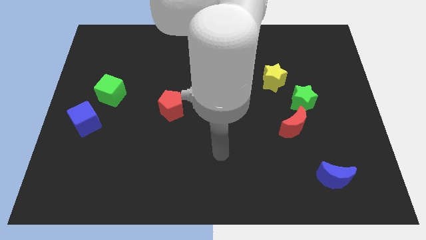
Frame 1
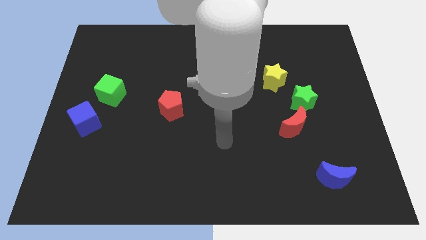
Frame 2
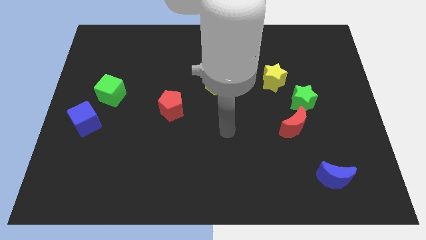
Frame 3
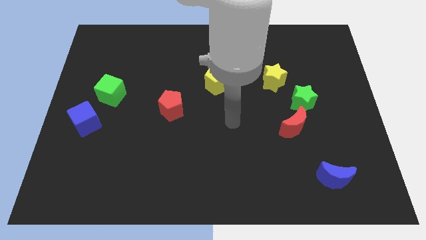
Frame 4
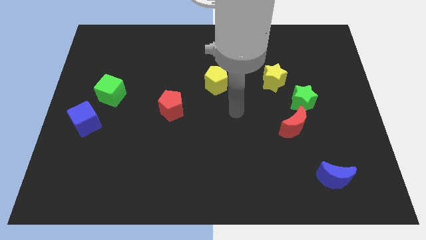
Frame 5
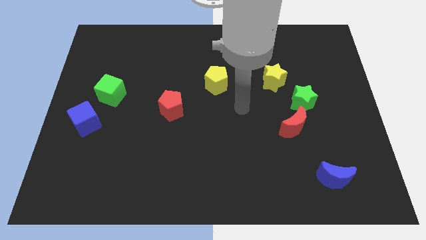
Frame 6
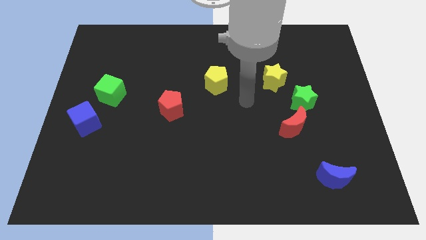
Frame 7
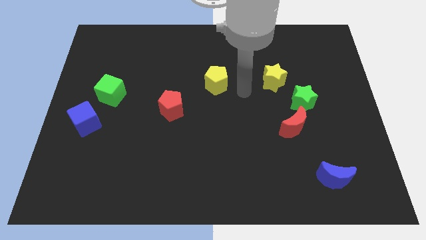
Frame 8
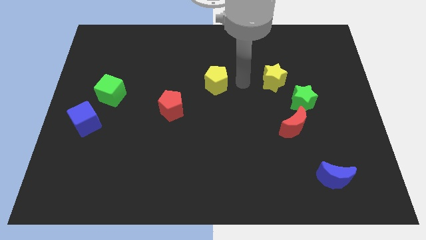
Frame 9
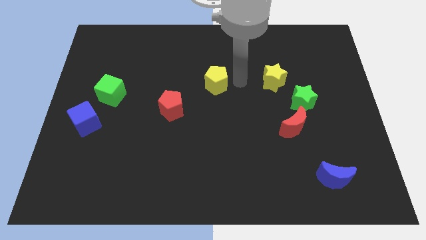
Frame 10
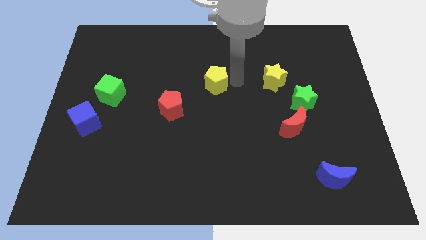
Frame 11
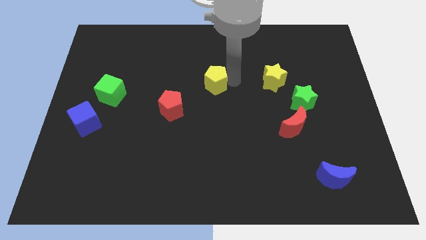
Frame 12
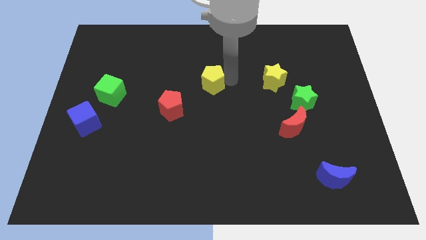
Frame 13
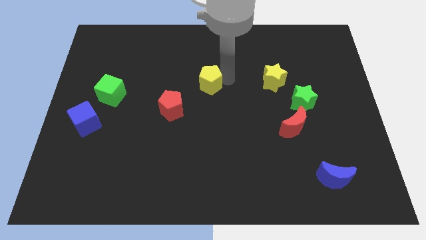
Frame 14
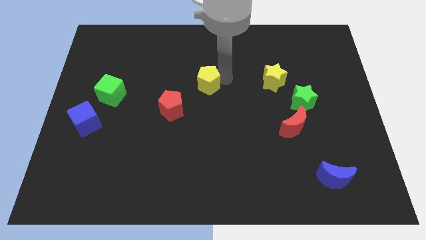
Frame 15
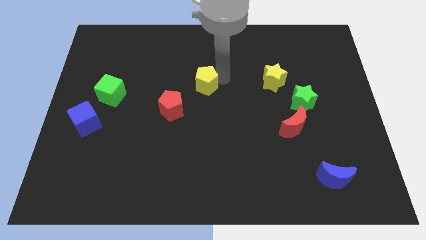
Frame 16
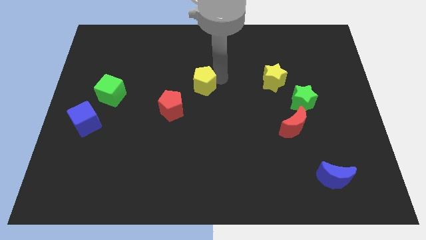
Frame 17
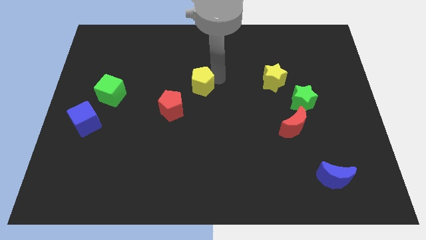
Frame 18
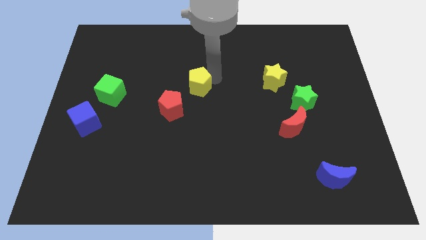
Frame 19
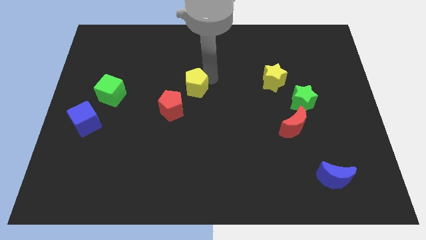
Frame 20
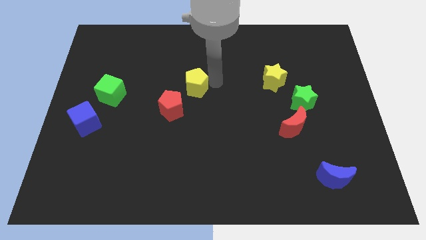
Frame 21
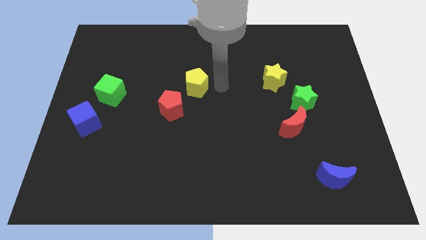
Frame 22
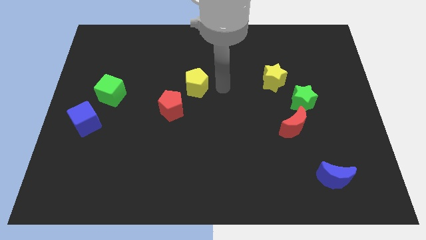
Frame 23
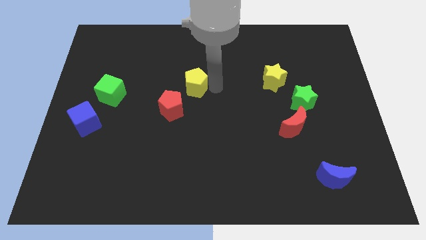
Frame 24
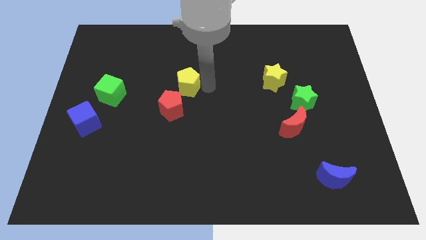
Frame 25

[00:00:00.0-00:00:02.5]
slide the yellow pentagon left a little bit

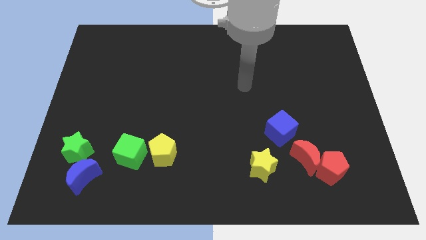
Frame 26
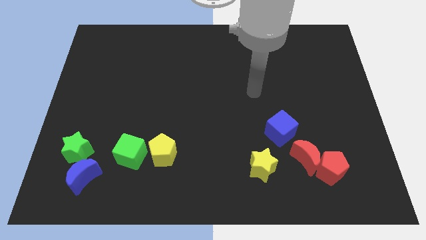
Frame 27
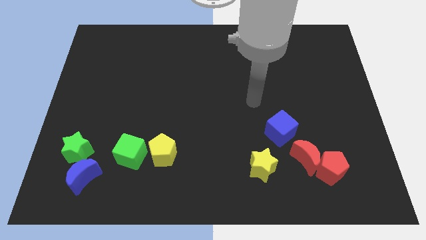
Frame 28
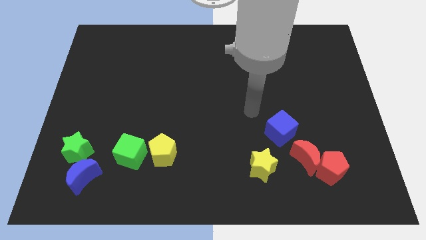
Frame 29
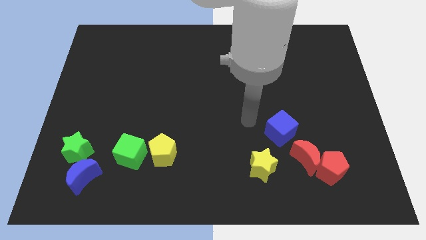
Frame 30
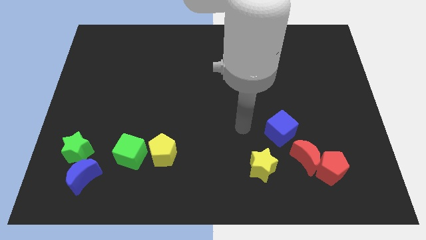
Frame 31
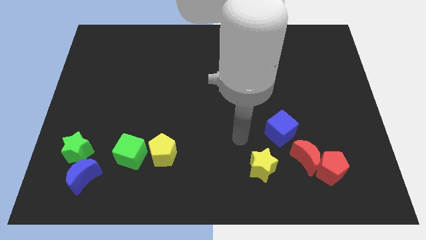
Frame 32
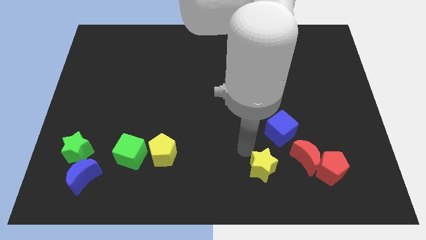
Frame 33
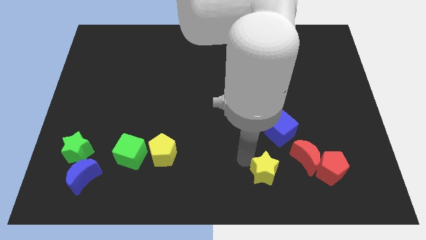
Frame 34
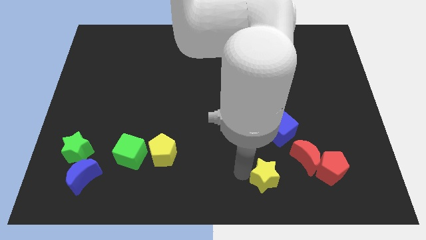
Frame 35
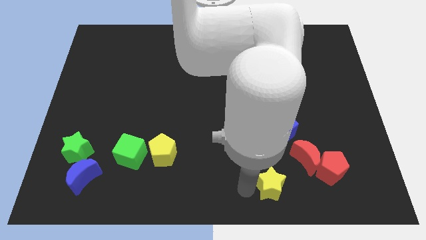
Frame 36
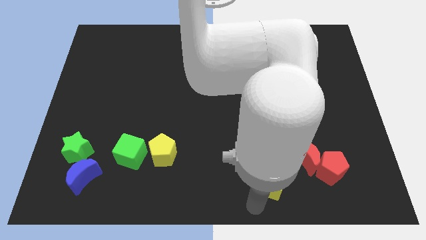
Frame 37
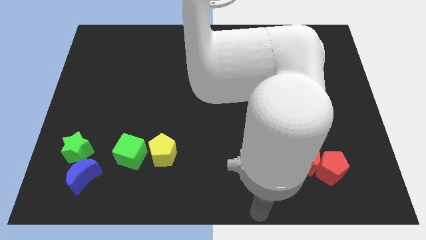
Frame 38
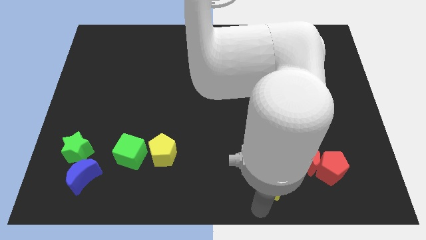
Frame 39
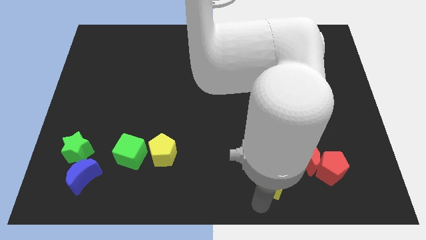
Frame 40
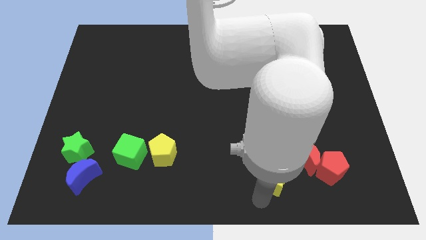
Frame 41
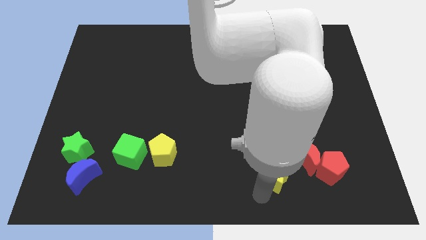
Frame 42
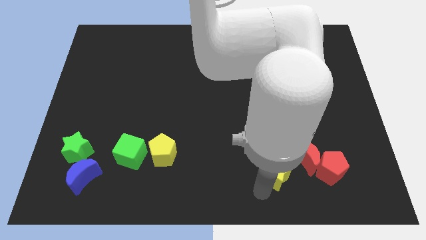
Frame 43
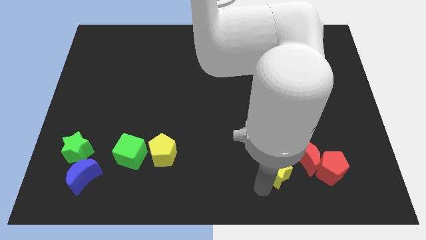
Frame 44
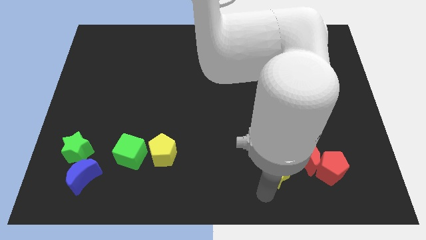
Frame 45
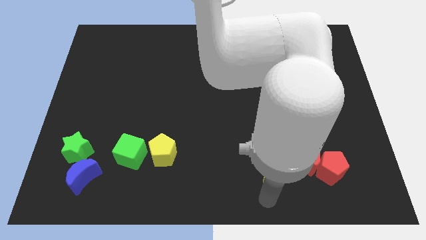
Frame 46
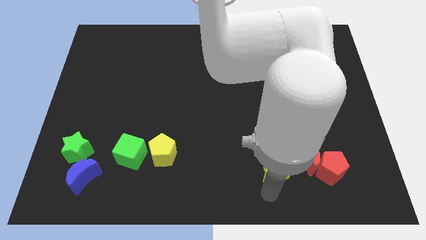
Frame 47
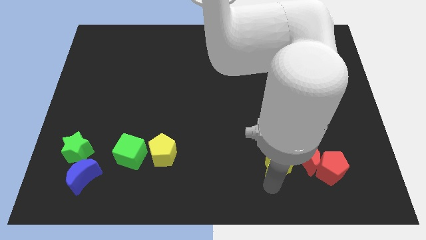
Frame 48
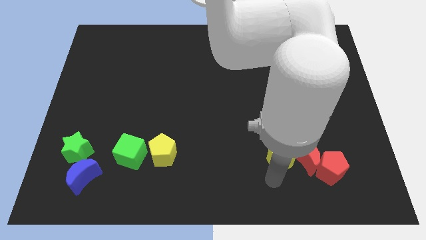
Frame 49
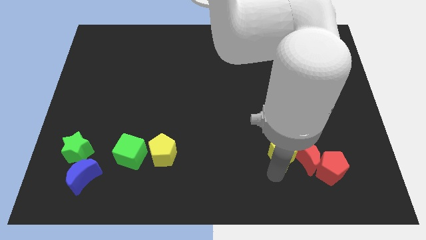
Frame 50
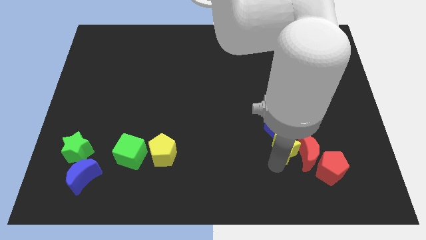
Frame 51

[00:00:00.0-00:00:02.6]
slide the yellow star up and right diagonally a little

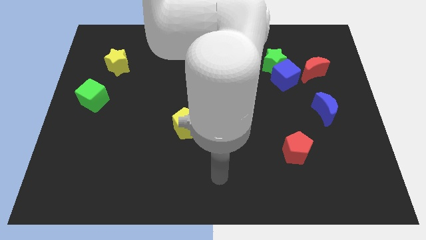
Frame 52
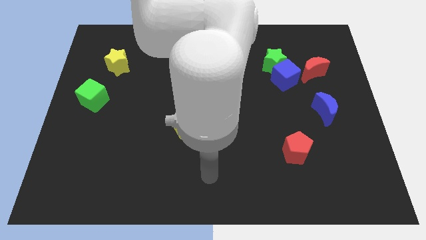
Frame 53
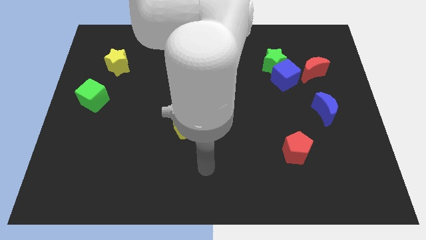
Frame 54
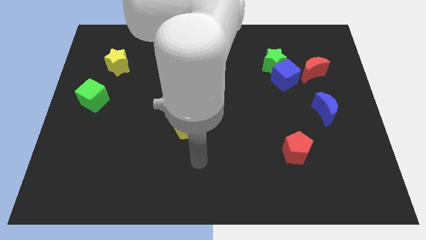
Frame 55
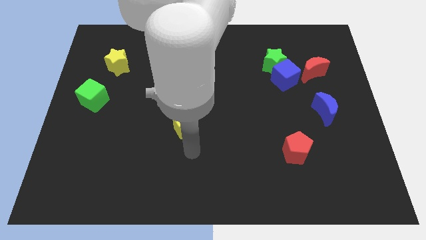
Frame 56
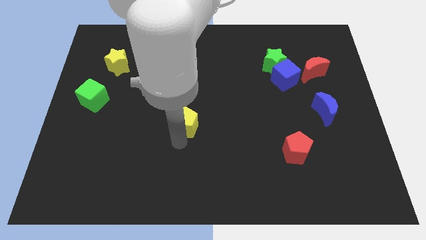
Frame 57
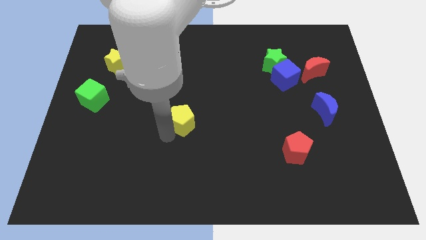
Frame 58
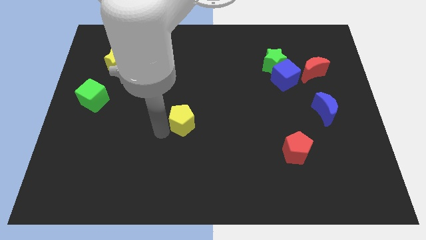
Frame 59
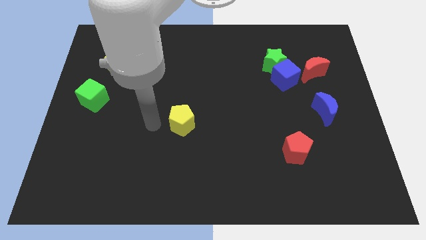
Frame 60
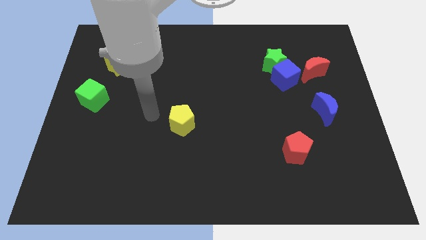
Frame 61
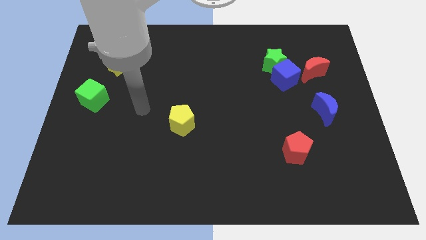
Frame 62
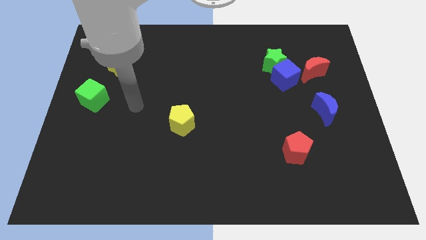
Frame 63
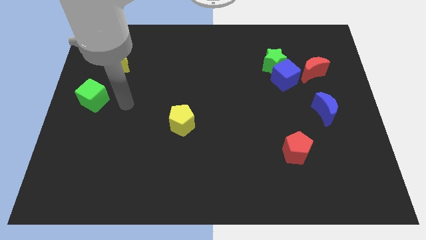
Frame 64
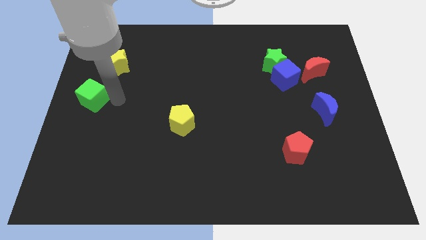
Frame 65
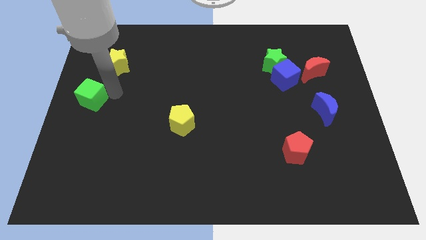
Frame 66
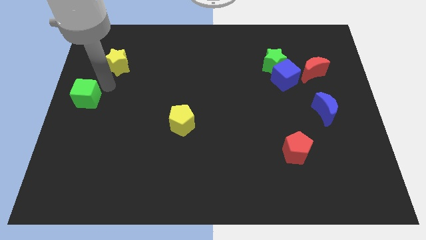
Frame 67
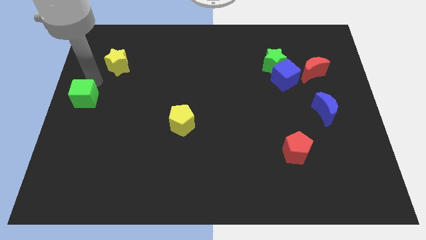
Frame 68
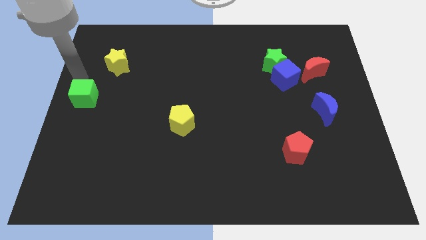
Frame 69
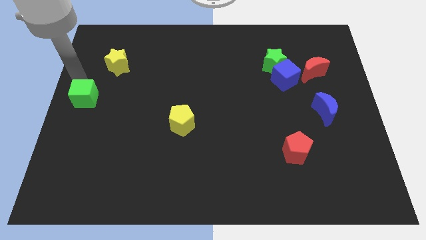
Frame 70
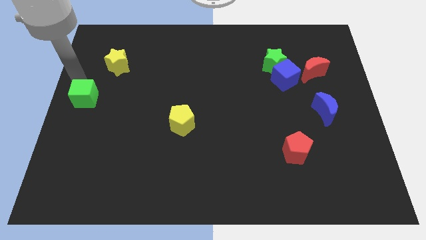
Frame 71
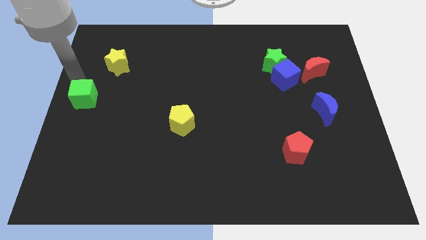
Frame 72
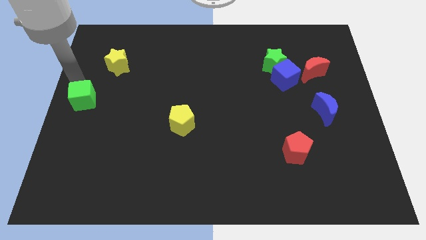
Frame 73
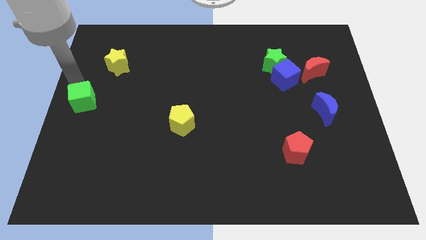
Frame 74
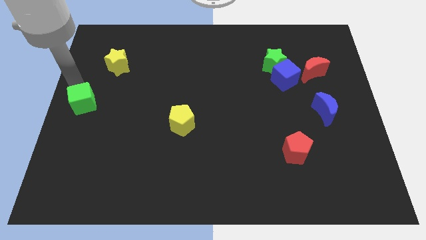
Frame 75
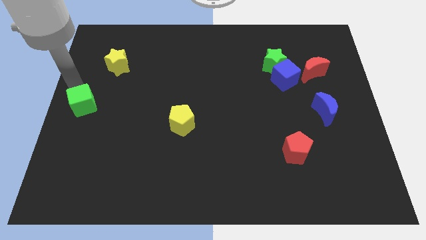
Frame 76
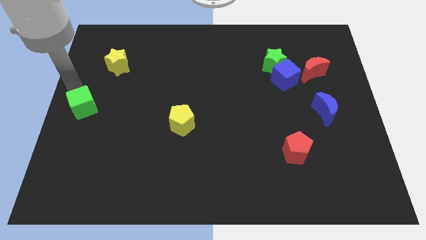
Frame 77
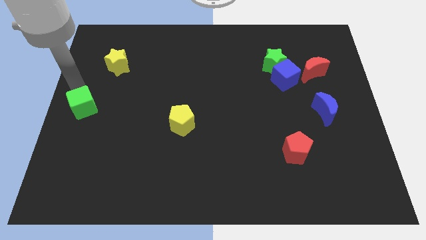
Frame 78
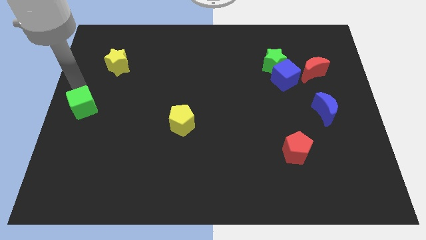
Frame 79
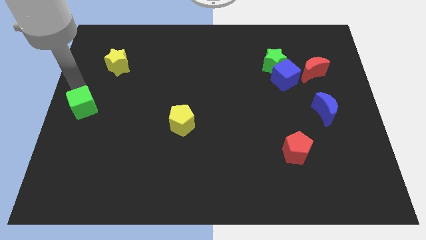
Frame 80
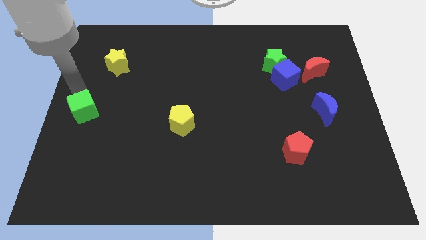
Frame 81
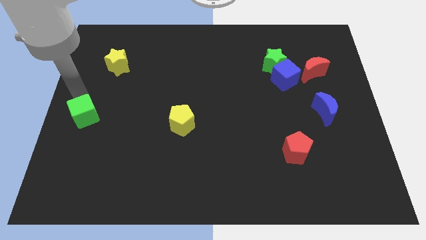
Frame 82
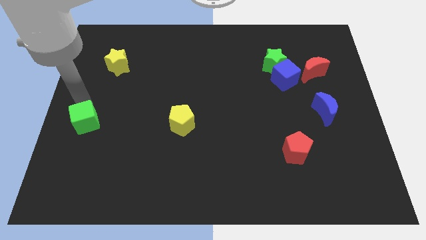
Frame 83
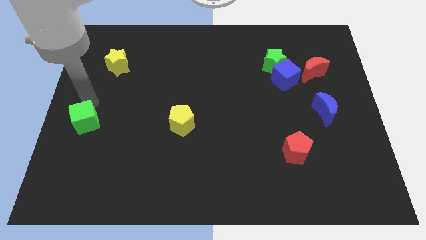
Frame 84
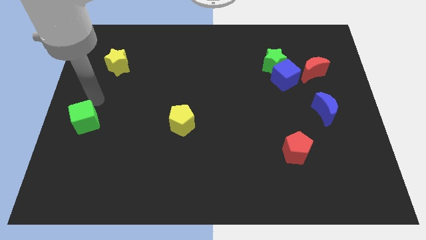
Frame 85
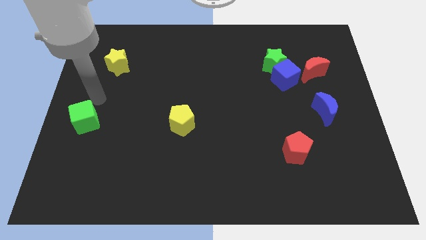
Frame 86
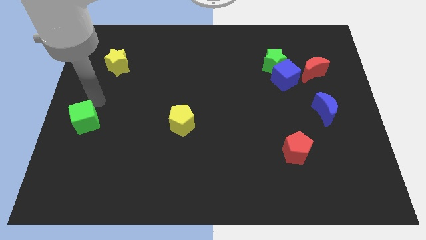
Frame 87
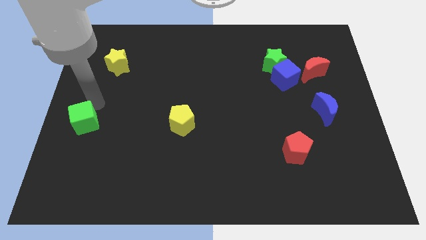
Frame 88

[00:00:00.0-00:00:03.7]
slightly move the green cube downwards
